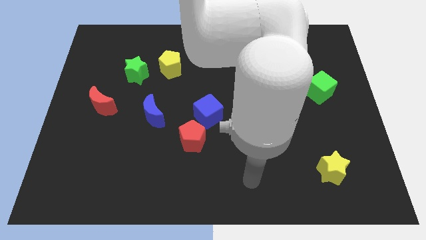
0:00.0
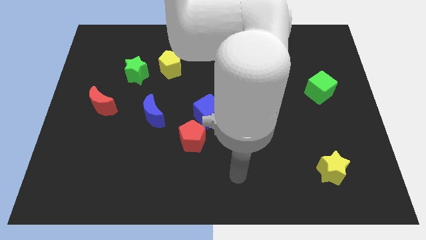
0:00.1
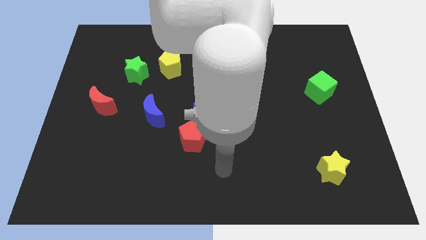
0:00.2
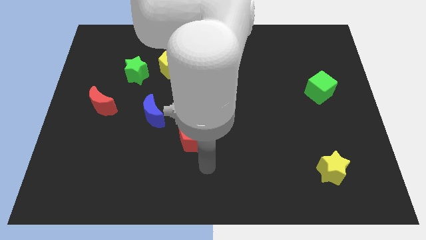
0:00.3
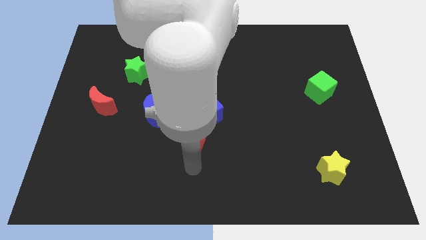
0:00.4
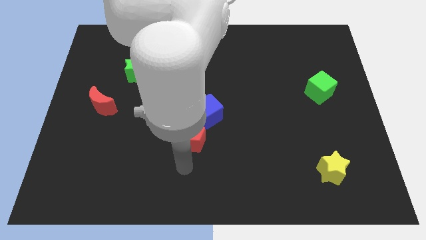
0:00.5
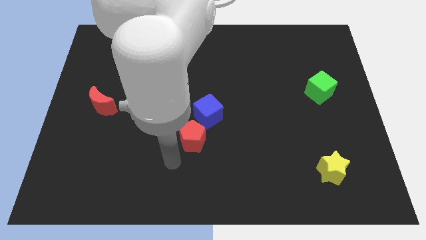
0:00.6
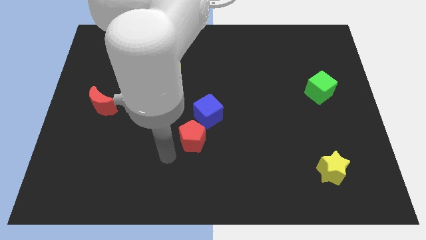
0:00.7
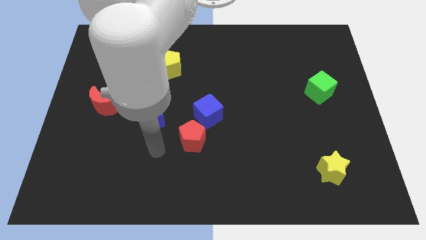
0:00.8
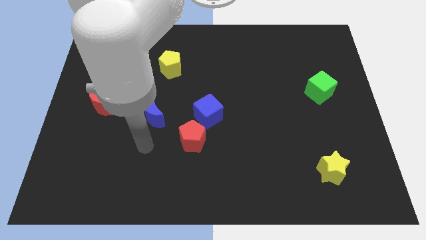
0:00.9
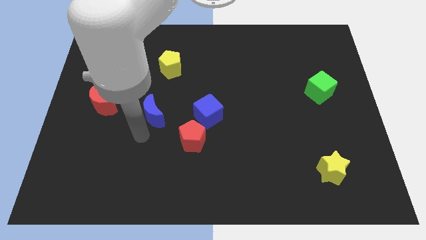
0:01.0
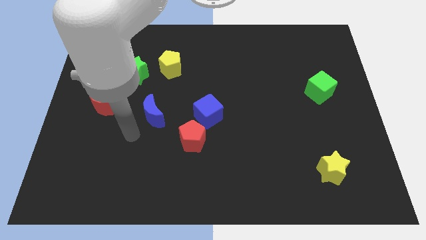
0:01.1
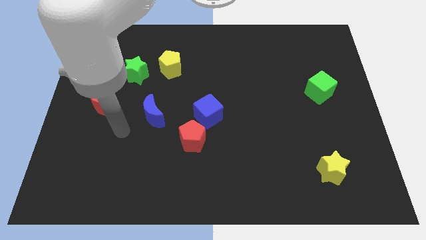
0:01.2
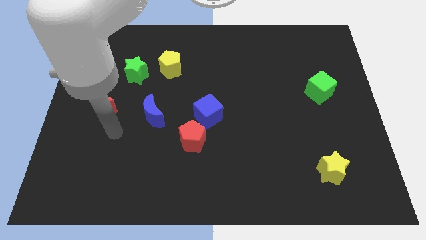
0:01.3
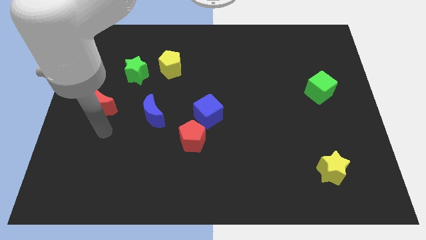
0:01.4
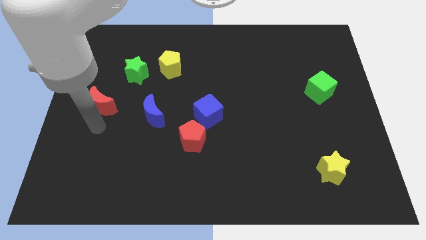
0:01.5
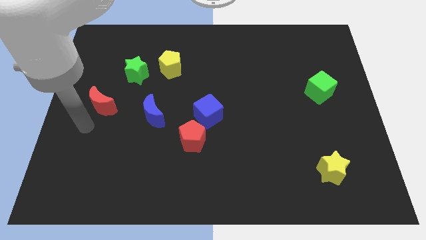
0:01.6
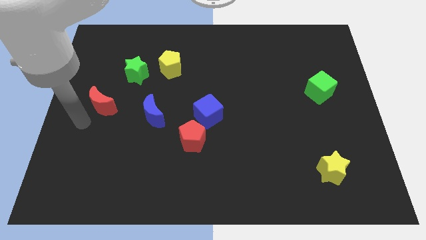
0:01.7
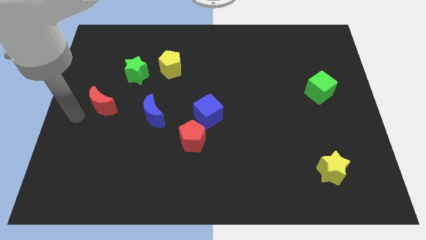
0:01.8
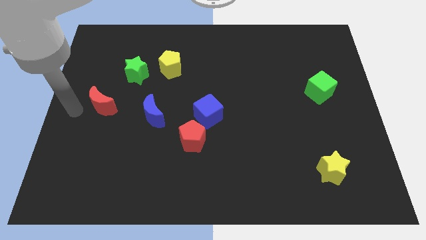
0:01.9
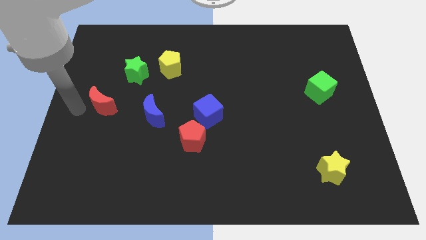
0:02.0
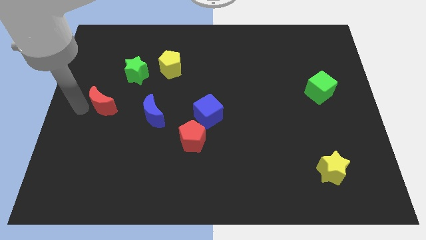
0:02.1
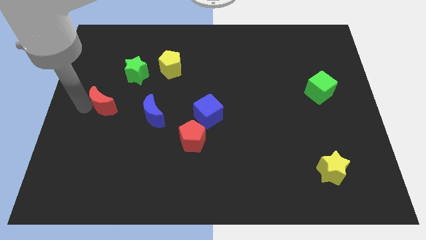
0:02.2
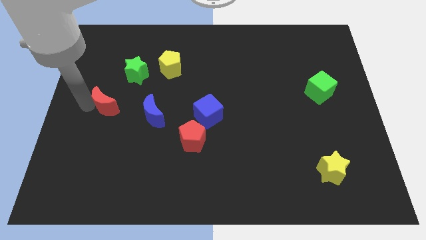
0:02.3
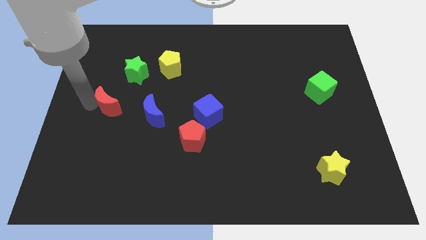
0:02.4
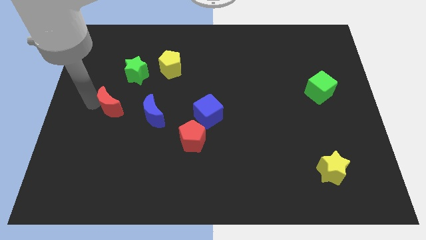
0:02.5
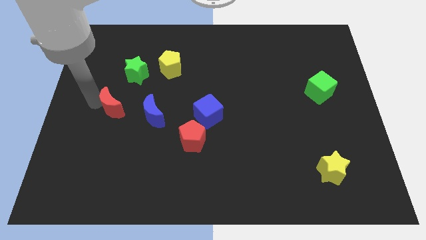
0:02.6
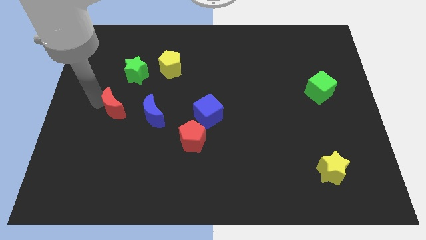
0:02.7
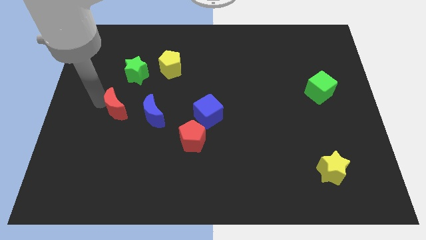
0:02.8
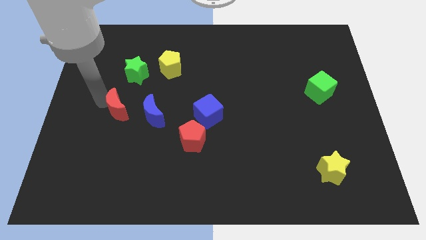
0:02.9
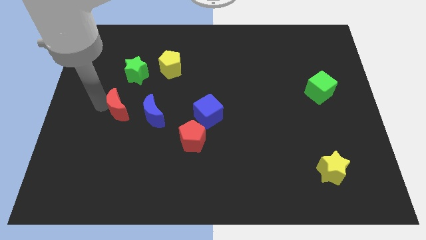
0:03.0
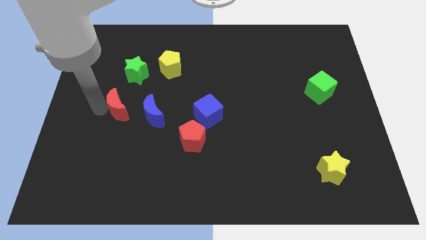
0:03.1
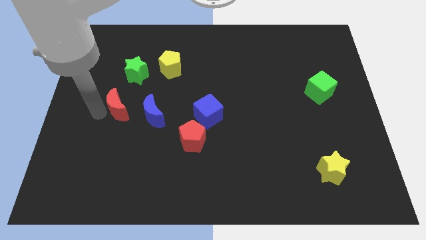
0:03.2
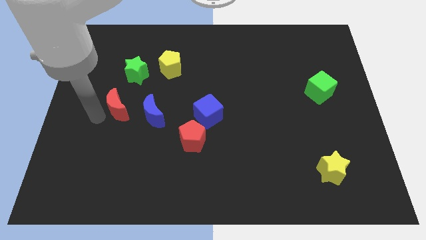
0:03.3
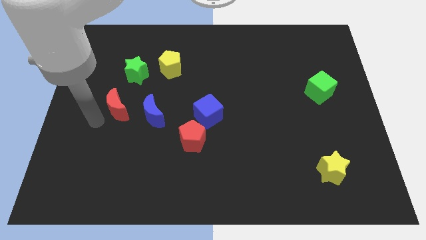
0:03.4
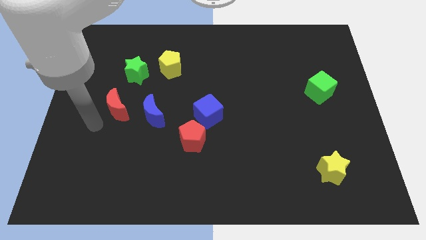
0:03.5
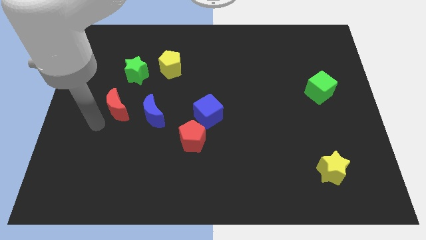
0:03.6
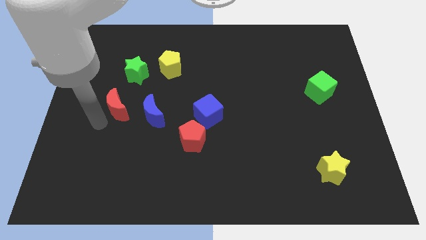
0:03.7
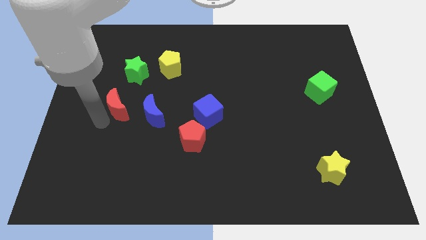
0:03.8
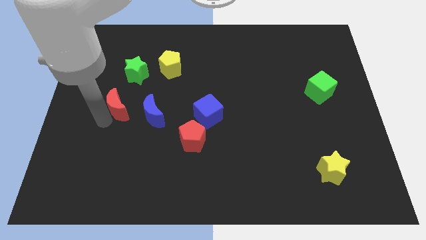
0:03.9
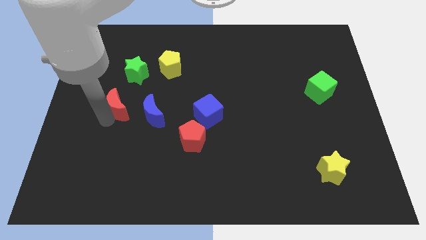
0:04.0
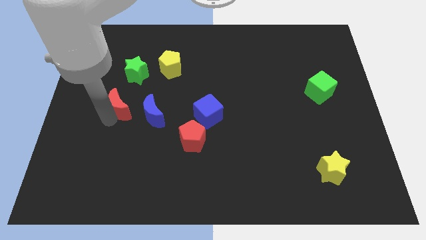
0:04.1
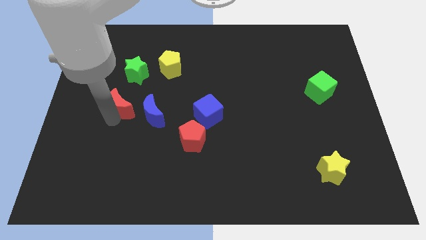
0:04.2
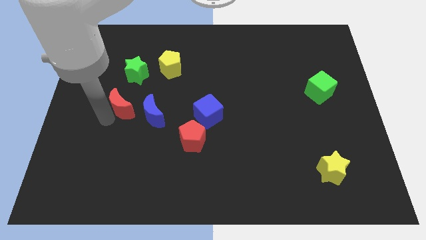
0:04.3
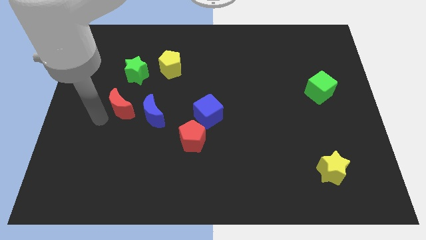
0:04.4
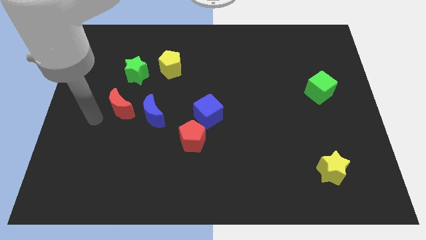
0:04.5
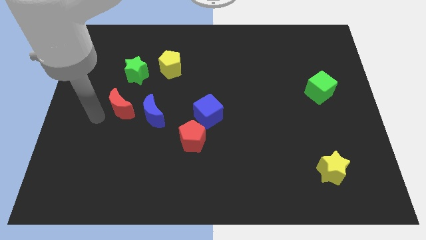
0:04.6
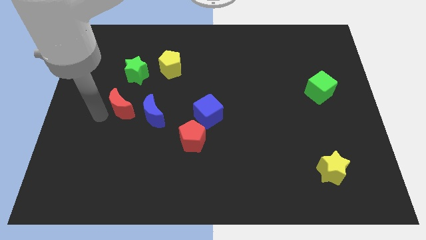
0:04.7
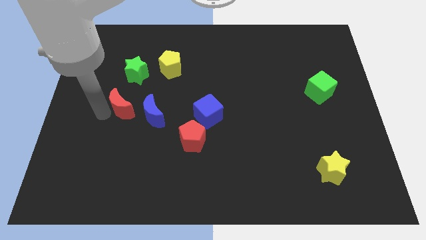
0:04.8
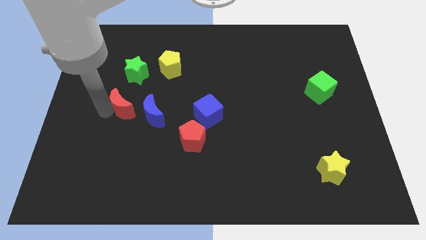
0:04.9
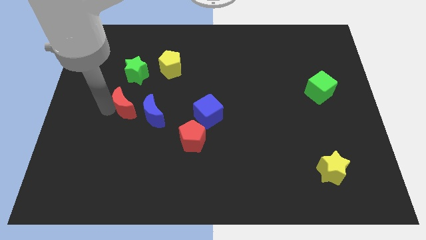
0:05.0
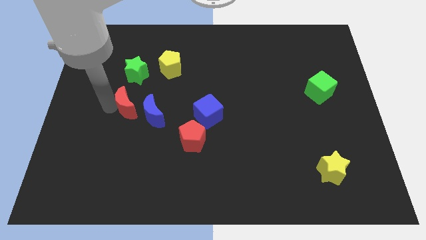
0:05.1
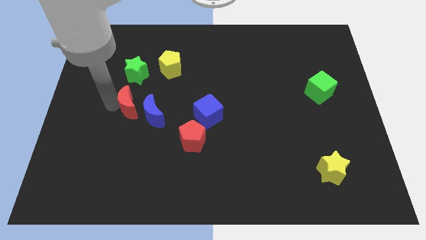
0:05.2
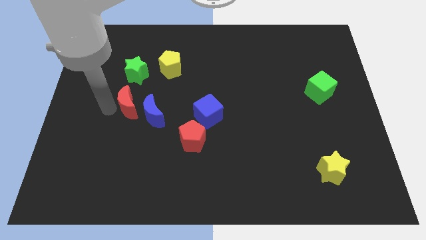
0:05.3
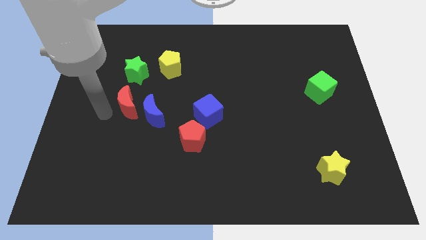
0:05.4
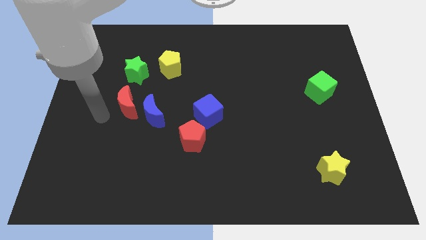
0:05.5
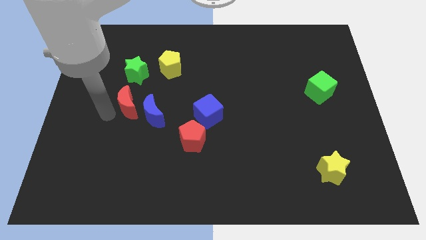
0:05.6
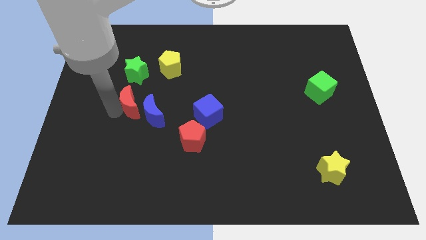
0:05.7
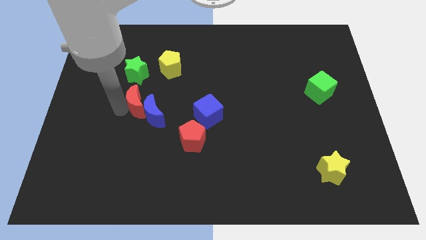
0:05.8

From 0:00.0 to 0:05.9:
slightly slide the red moon to the right

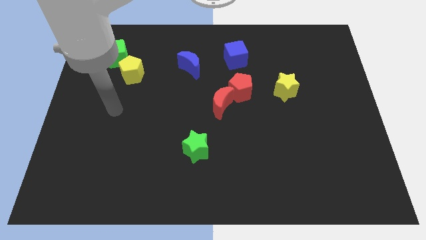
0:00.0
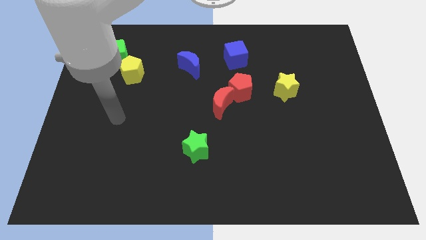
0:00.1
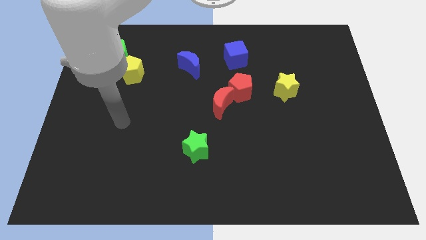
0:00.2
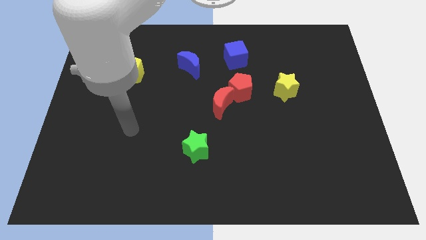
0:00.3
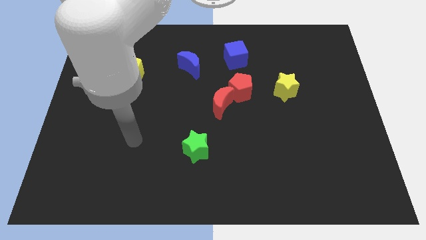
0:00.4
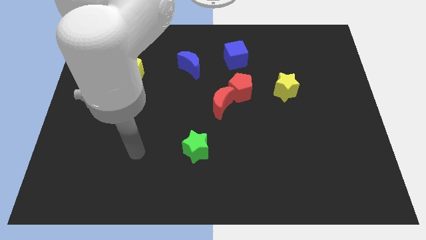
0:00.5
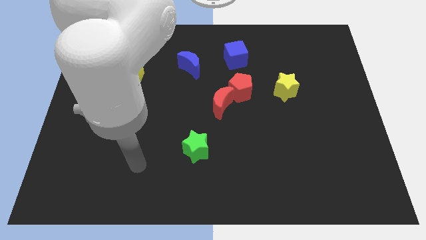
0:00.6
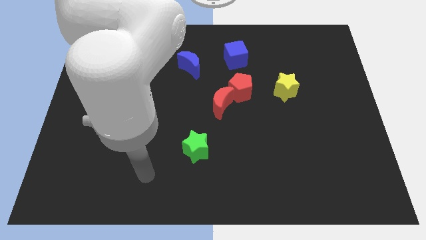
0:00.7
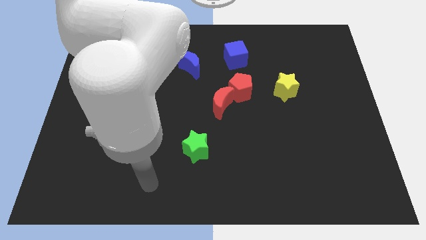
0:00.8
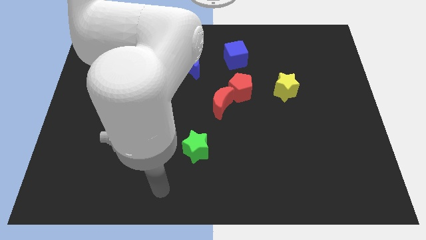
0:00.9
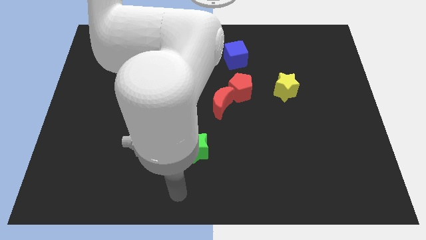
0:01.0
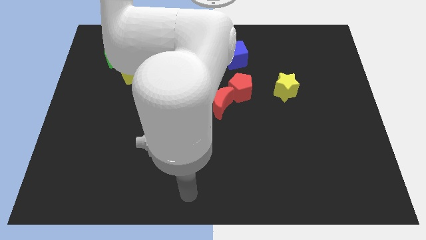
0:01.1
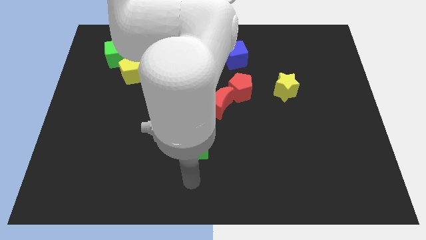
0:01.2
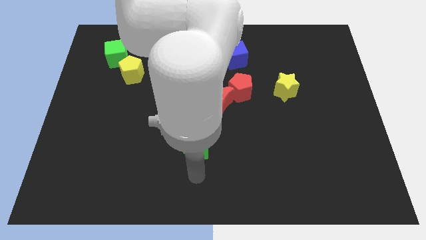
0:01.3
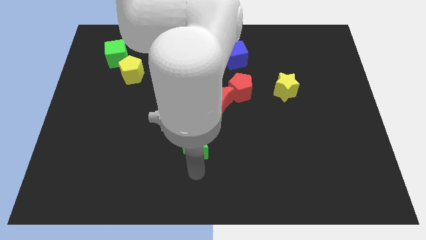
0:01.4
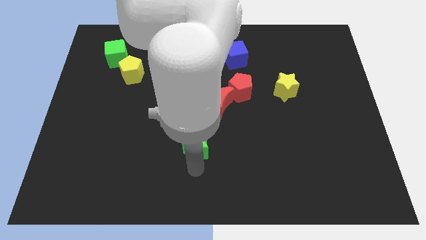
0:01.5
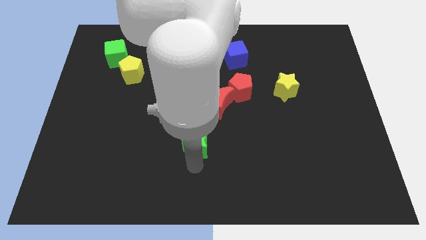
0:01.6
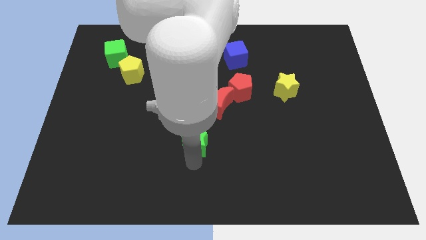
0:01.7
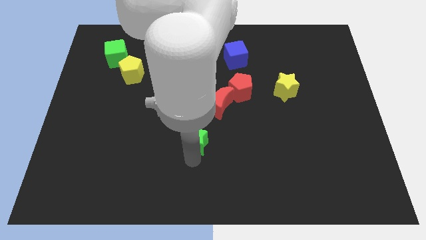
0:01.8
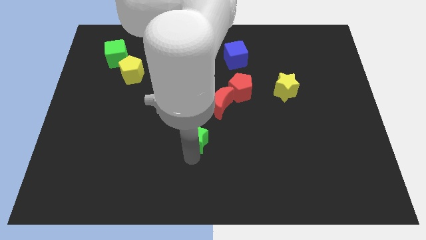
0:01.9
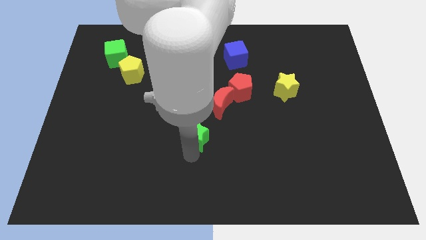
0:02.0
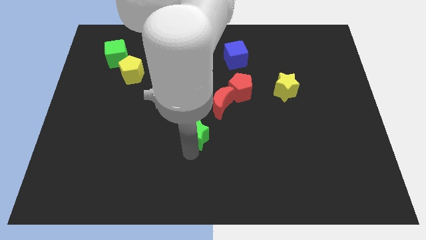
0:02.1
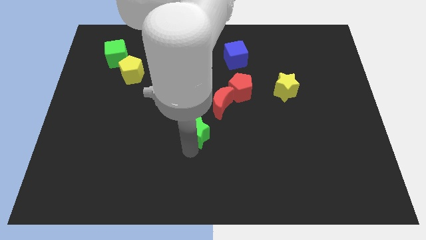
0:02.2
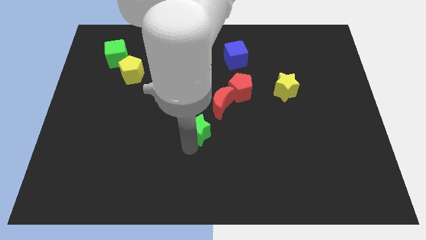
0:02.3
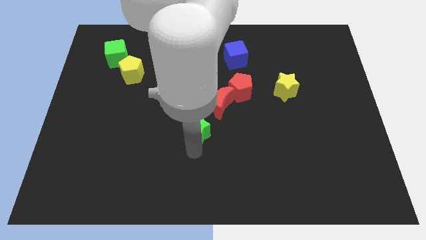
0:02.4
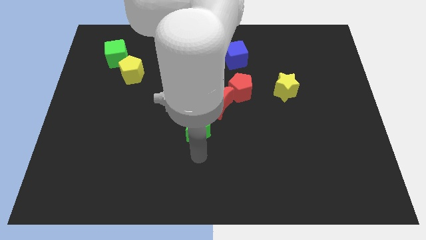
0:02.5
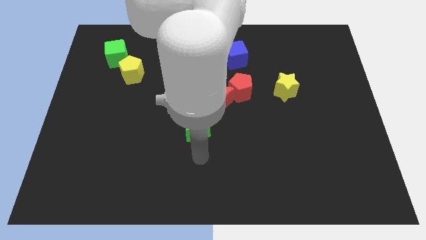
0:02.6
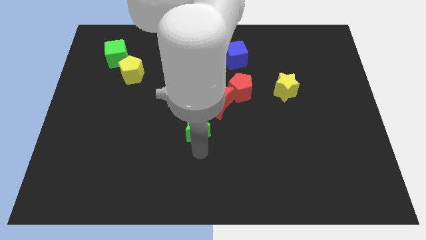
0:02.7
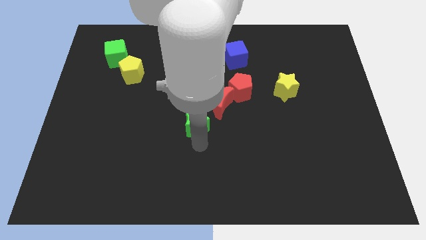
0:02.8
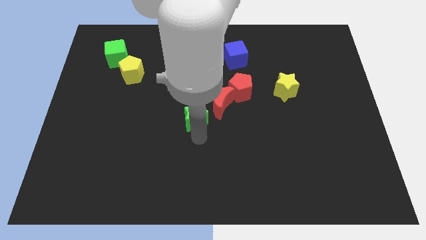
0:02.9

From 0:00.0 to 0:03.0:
slide the green star upwards a bit
